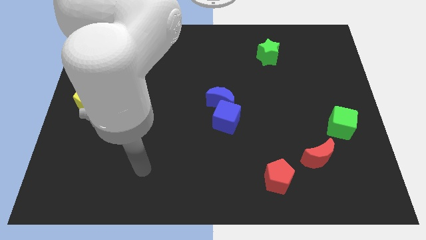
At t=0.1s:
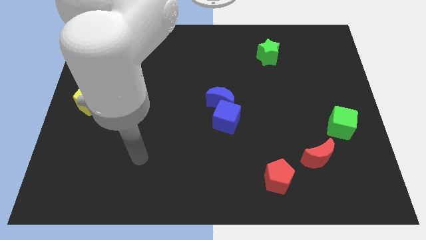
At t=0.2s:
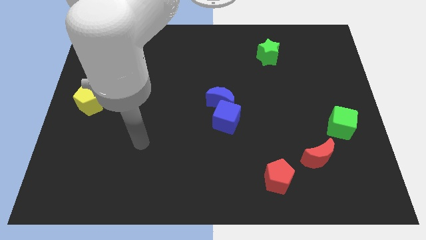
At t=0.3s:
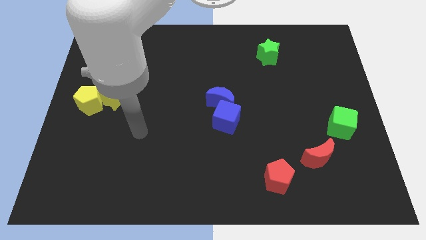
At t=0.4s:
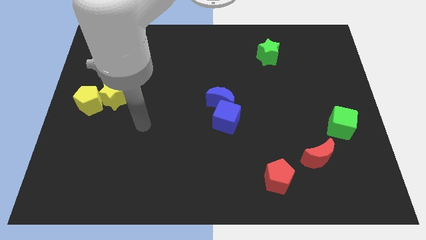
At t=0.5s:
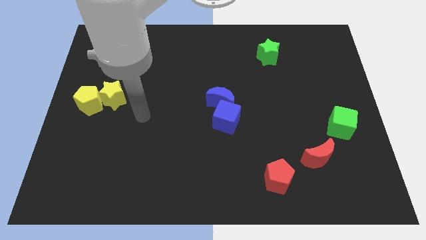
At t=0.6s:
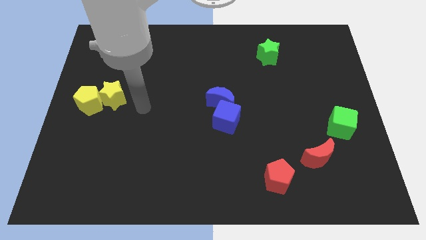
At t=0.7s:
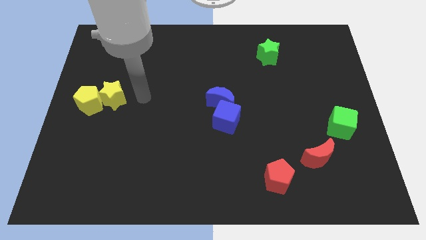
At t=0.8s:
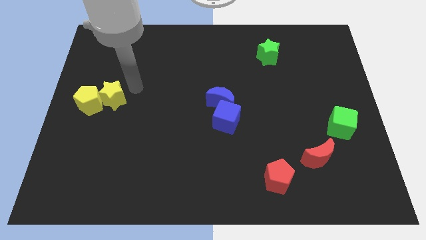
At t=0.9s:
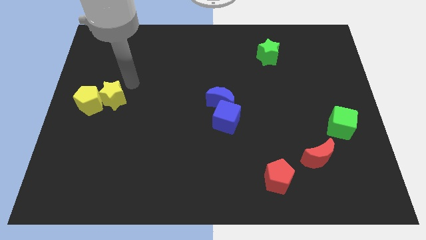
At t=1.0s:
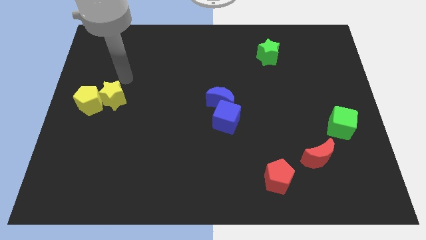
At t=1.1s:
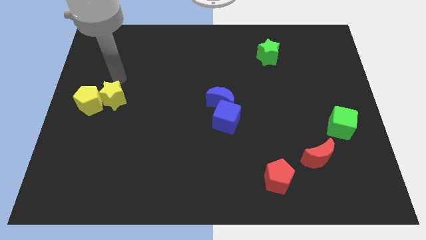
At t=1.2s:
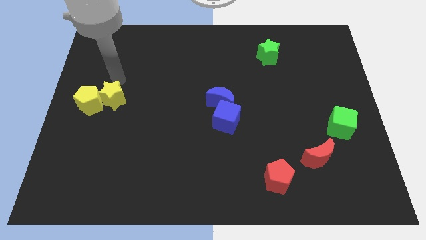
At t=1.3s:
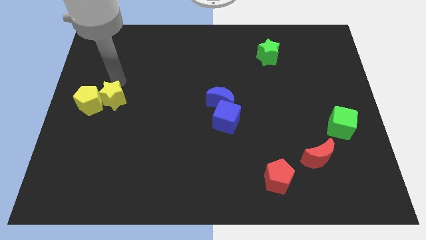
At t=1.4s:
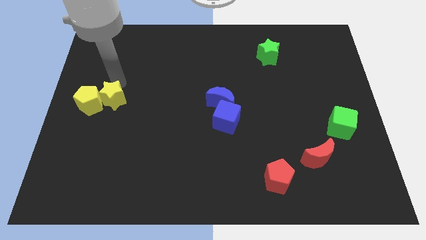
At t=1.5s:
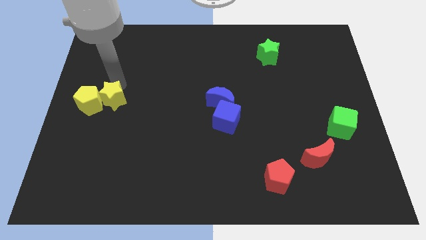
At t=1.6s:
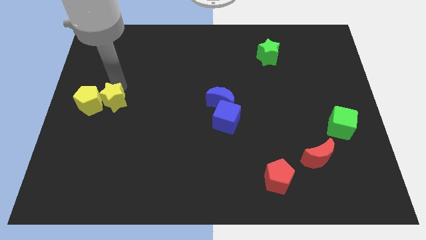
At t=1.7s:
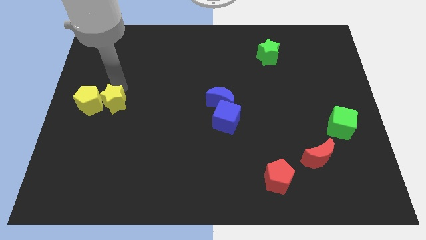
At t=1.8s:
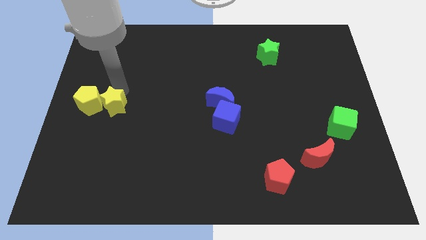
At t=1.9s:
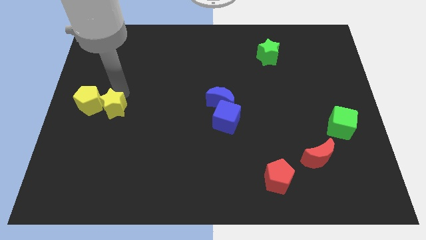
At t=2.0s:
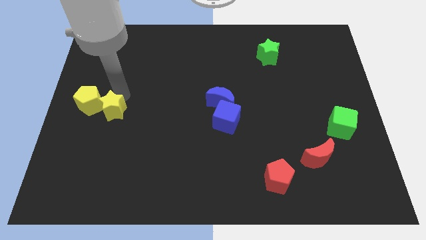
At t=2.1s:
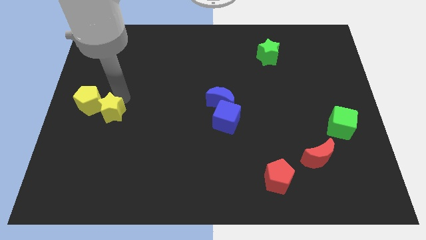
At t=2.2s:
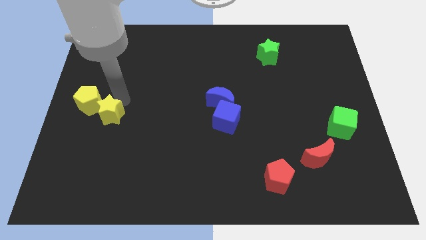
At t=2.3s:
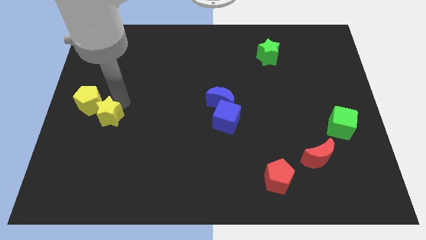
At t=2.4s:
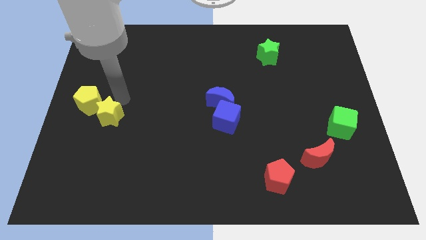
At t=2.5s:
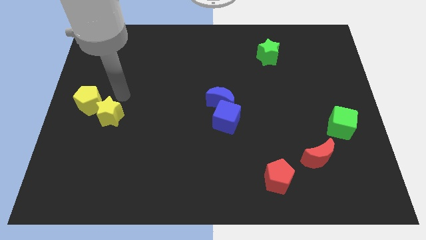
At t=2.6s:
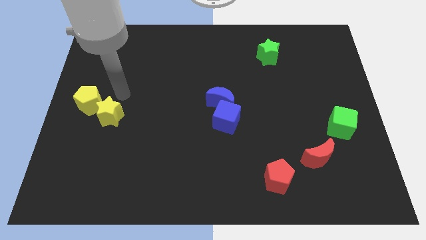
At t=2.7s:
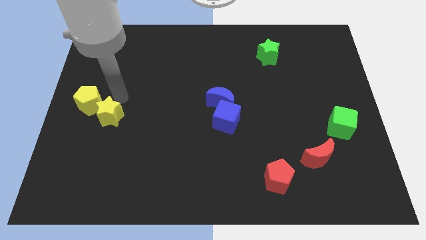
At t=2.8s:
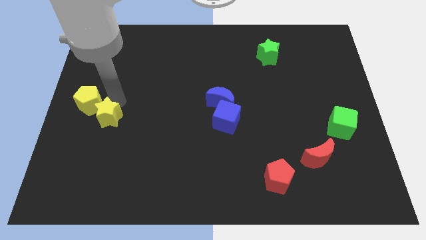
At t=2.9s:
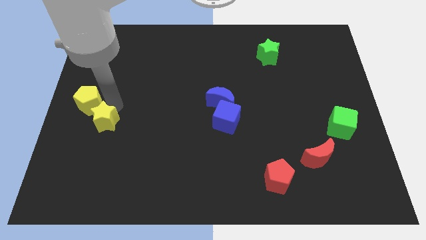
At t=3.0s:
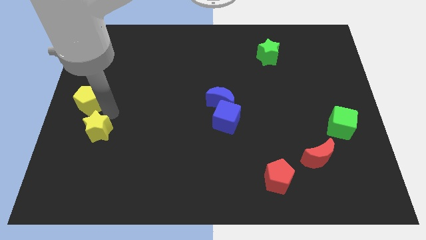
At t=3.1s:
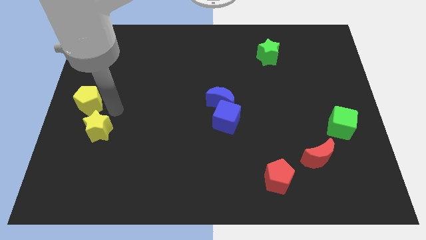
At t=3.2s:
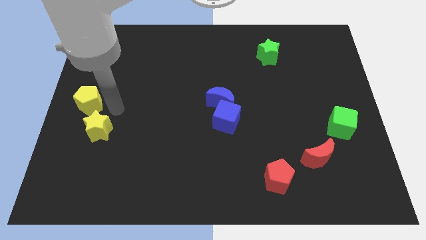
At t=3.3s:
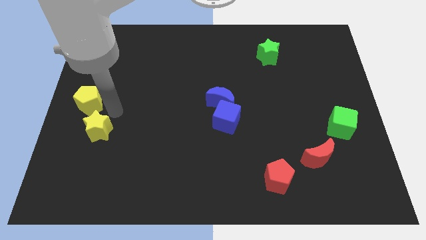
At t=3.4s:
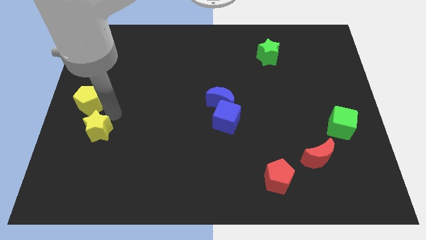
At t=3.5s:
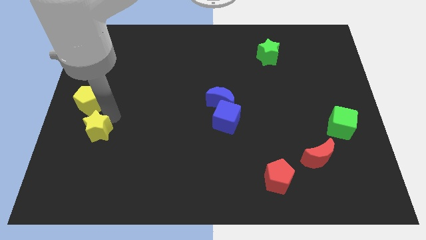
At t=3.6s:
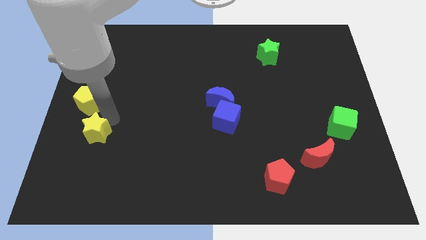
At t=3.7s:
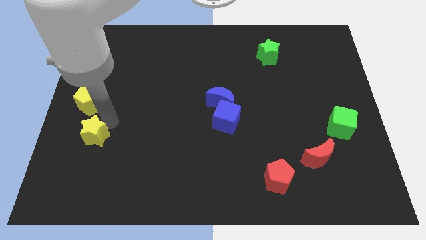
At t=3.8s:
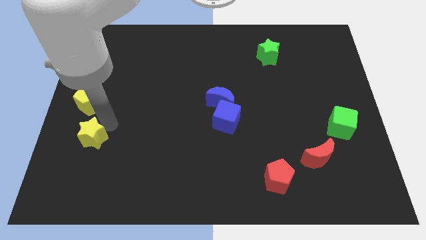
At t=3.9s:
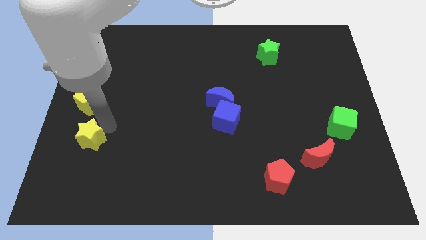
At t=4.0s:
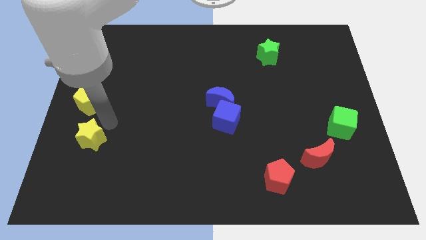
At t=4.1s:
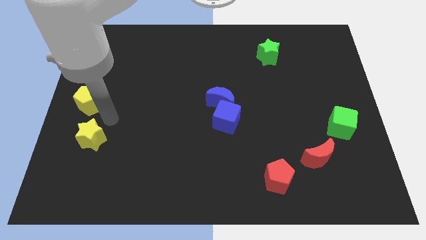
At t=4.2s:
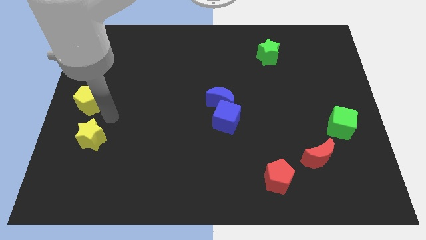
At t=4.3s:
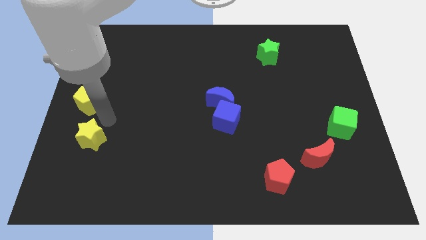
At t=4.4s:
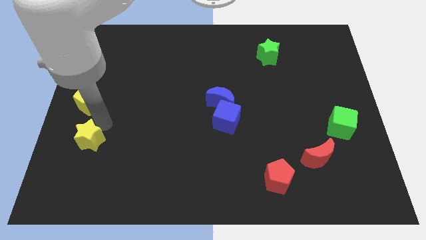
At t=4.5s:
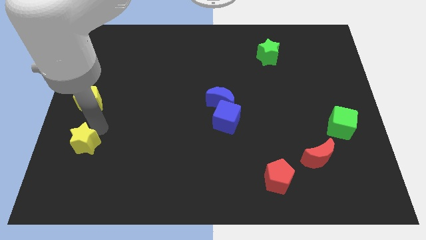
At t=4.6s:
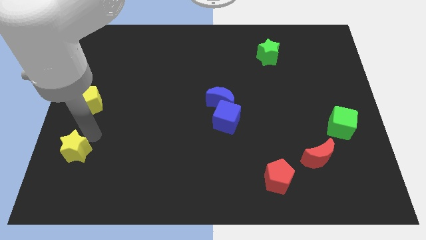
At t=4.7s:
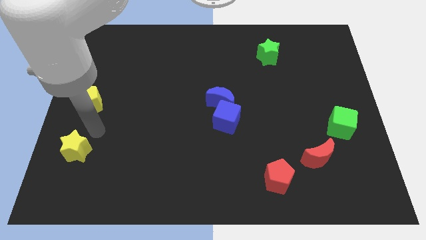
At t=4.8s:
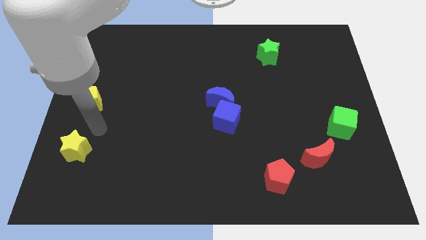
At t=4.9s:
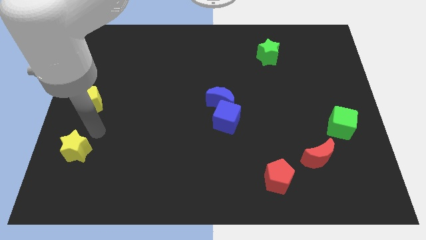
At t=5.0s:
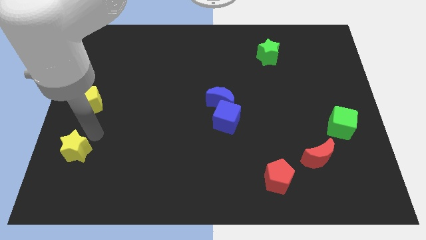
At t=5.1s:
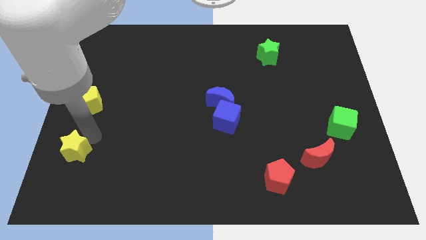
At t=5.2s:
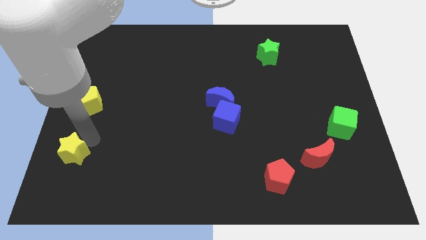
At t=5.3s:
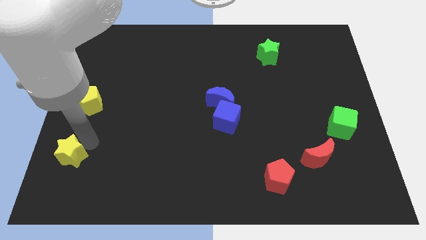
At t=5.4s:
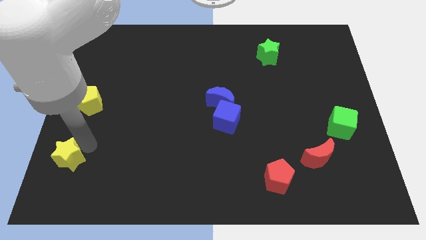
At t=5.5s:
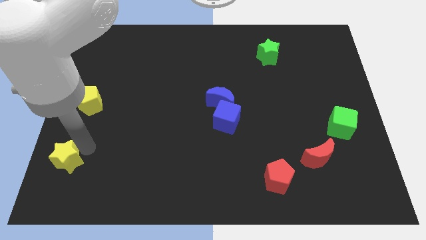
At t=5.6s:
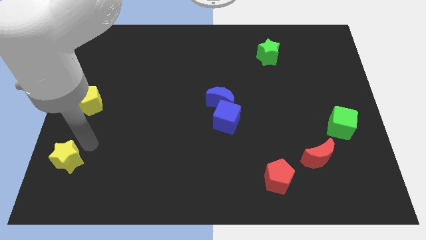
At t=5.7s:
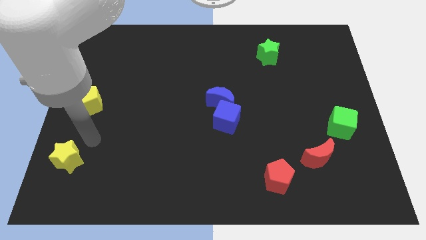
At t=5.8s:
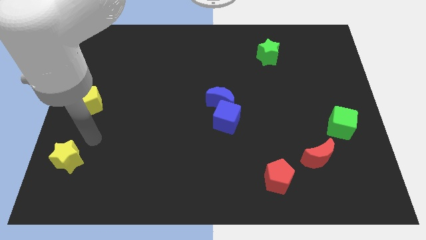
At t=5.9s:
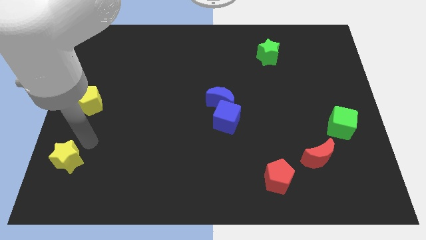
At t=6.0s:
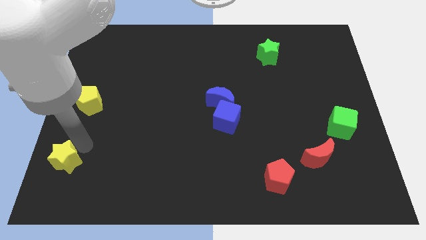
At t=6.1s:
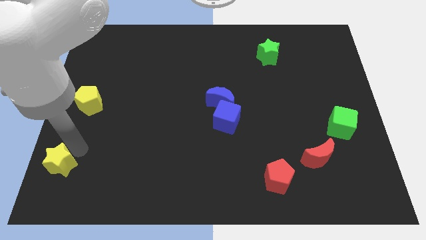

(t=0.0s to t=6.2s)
push the yellow star to the lower left corner

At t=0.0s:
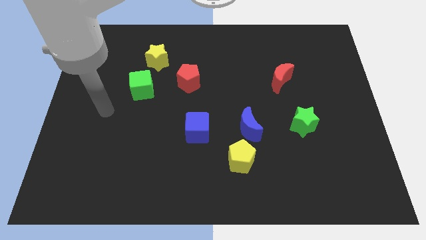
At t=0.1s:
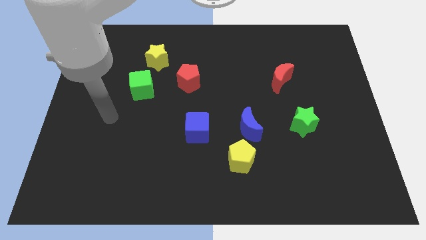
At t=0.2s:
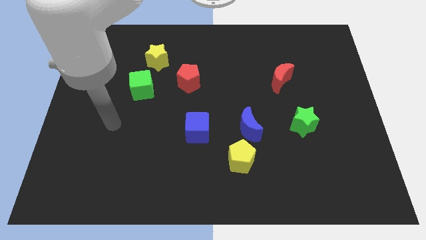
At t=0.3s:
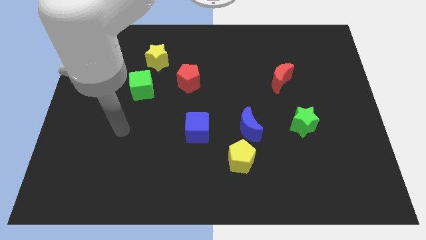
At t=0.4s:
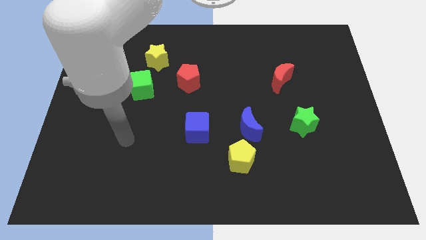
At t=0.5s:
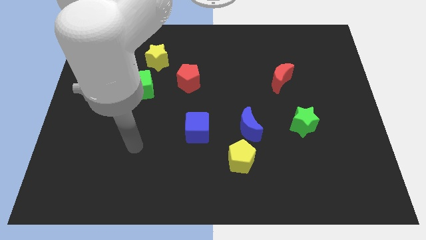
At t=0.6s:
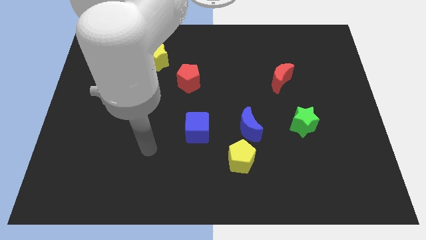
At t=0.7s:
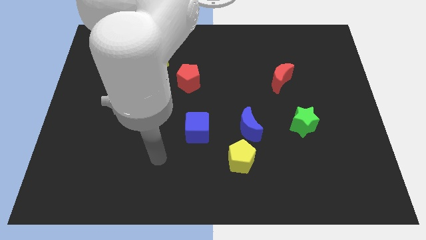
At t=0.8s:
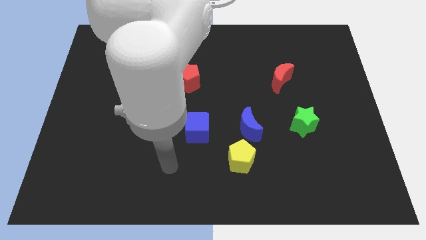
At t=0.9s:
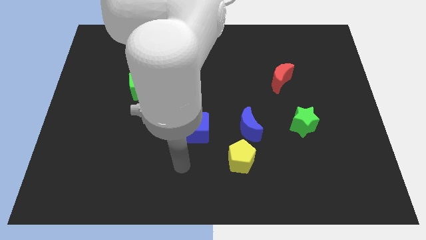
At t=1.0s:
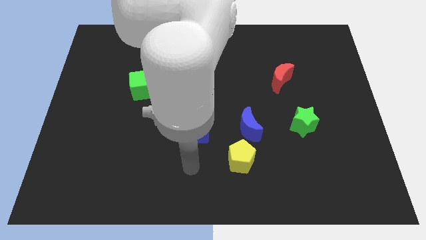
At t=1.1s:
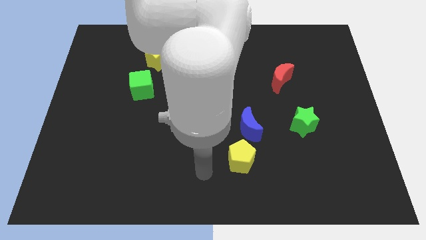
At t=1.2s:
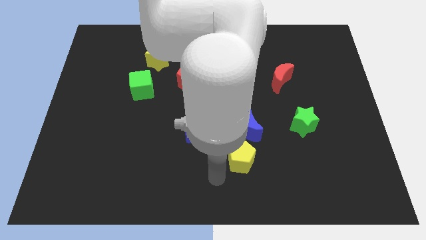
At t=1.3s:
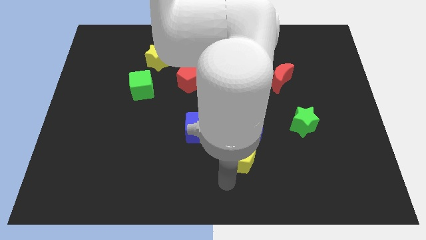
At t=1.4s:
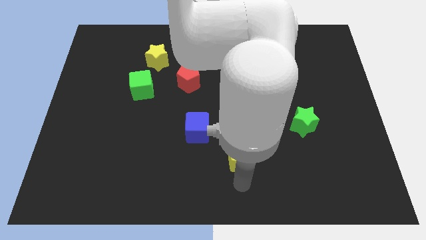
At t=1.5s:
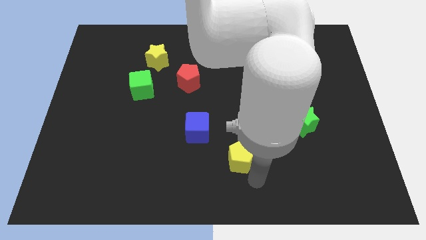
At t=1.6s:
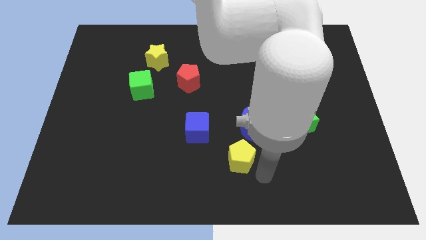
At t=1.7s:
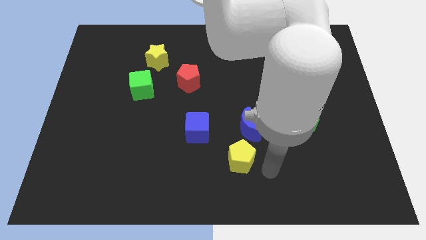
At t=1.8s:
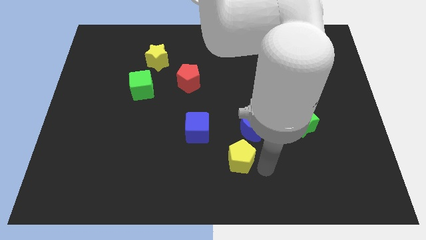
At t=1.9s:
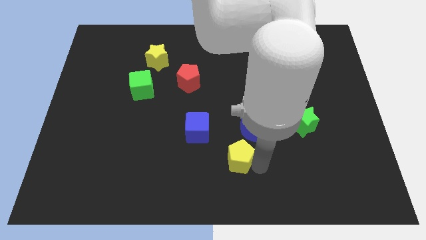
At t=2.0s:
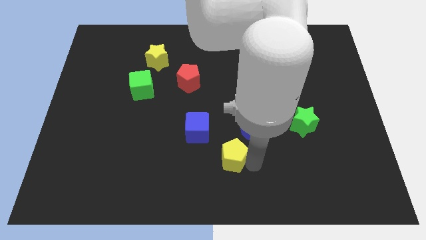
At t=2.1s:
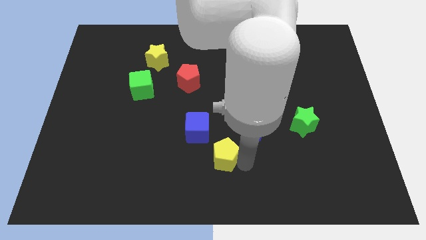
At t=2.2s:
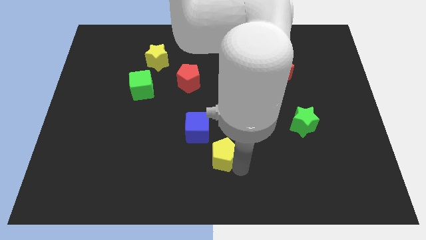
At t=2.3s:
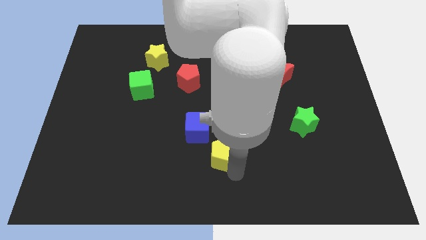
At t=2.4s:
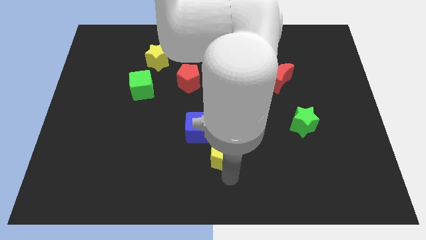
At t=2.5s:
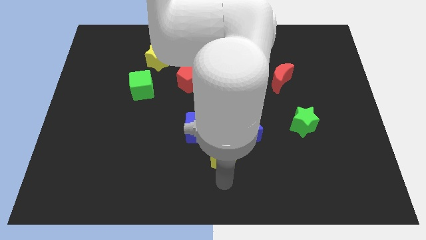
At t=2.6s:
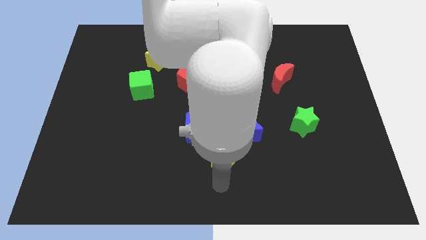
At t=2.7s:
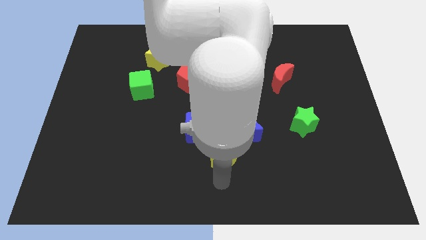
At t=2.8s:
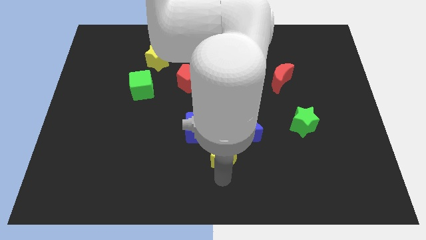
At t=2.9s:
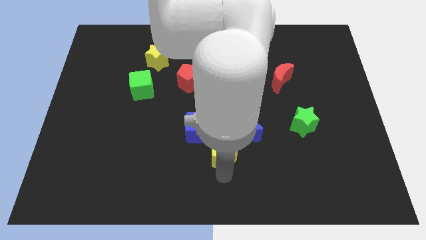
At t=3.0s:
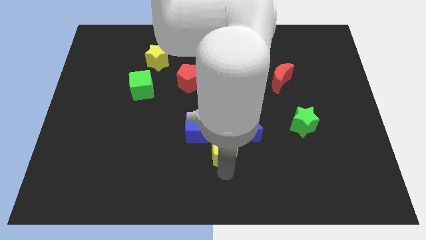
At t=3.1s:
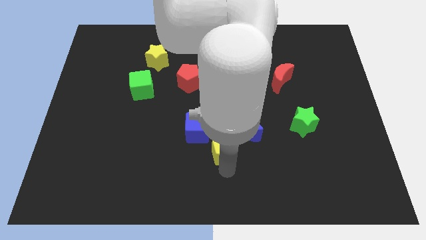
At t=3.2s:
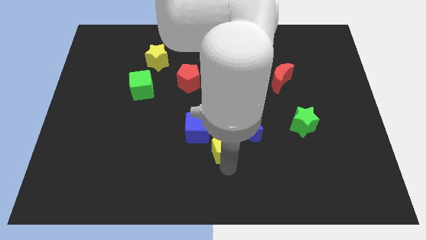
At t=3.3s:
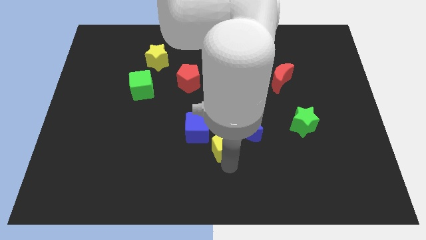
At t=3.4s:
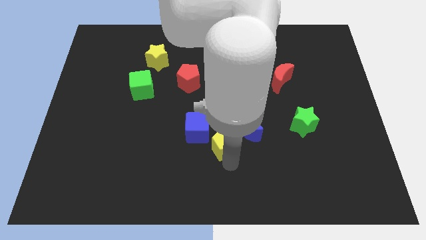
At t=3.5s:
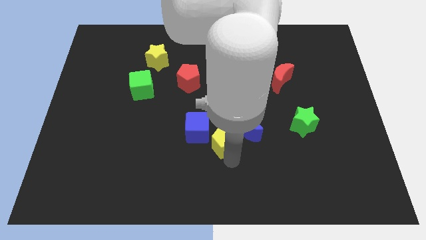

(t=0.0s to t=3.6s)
move the yellow pentagon to the middle of the board
